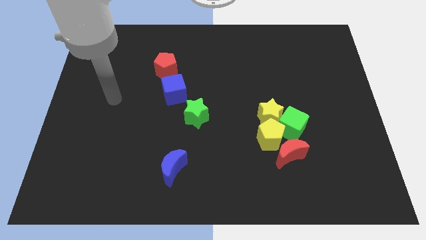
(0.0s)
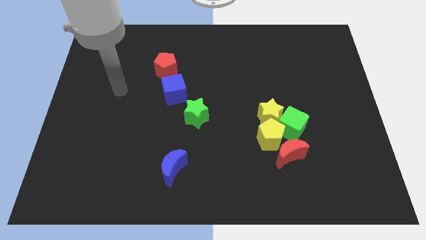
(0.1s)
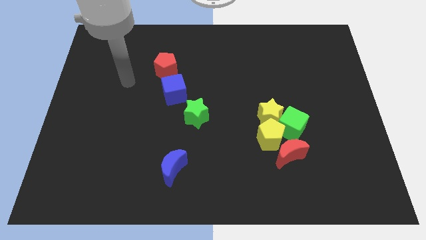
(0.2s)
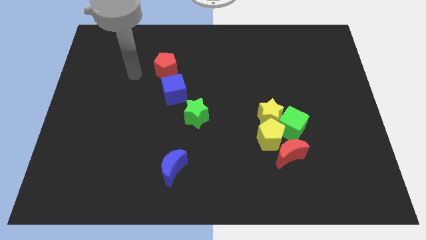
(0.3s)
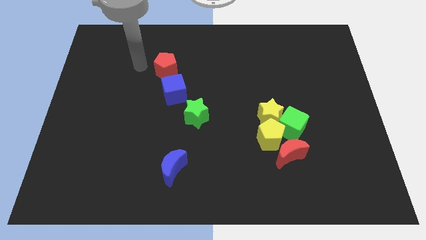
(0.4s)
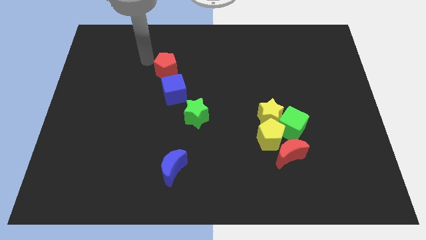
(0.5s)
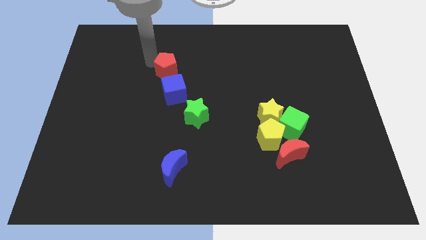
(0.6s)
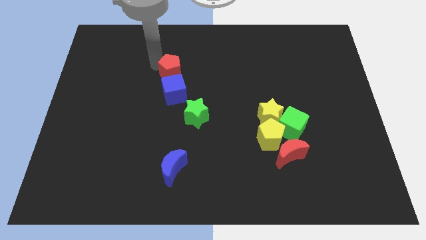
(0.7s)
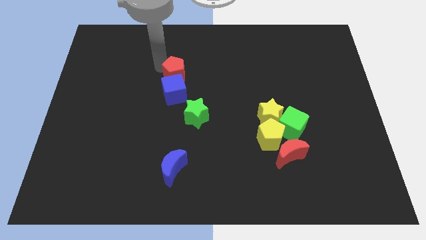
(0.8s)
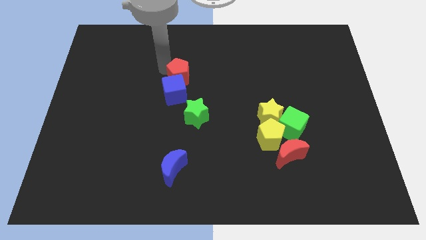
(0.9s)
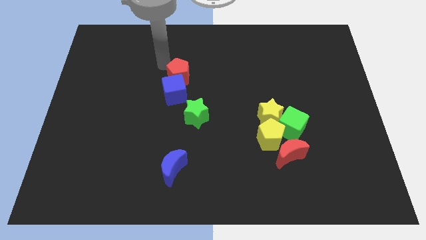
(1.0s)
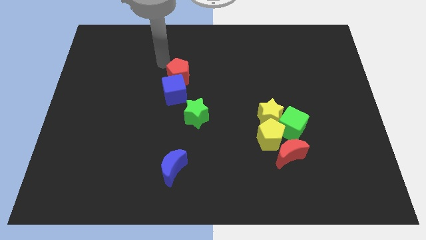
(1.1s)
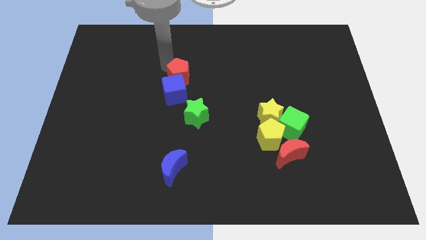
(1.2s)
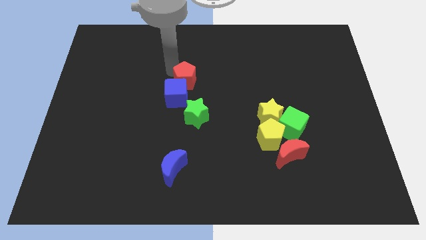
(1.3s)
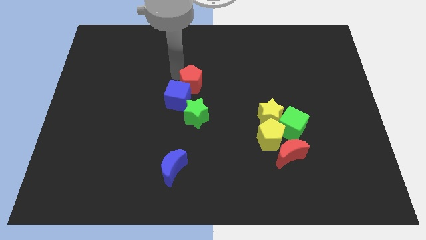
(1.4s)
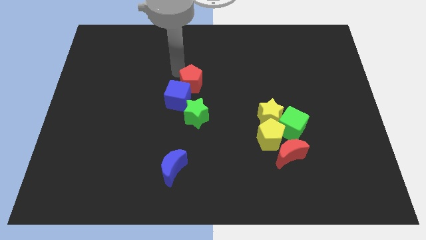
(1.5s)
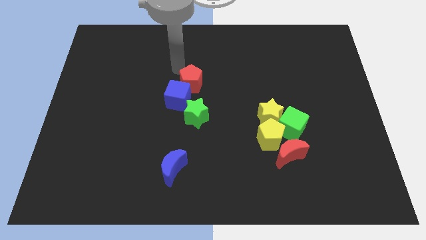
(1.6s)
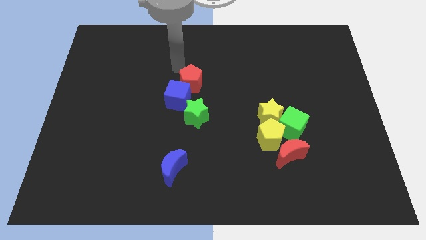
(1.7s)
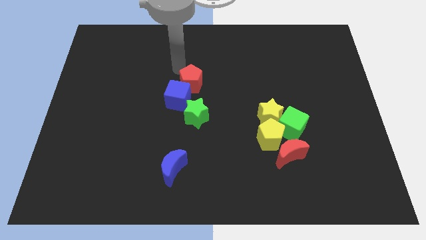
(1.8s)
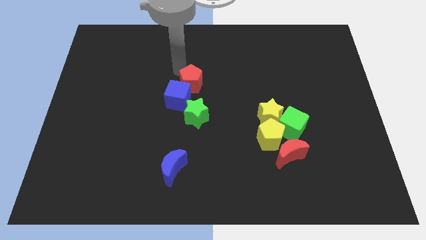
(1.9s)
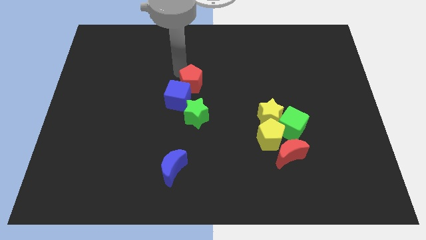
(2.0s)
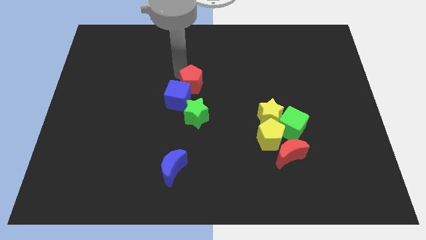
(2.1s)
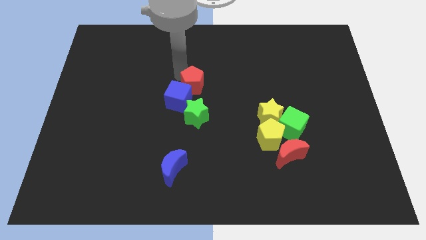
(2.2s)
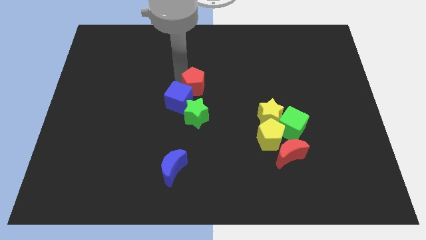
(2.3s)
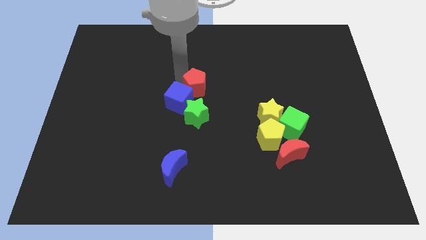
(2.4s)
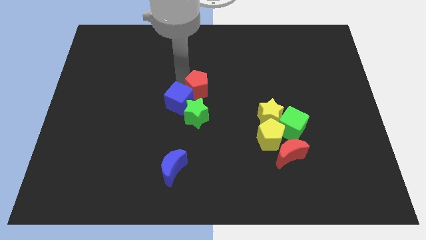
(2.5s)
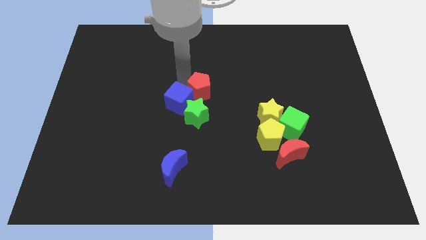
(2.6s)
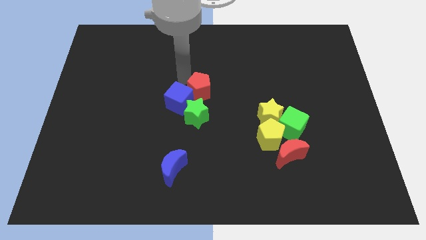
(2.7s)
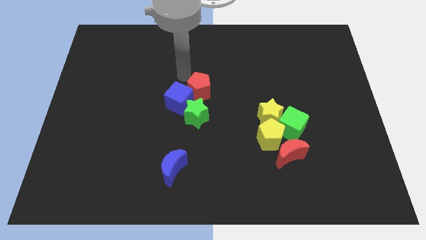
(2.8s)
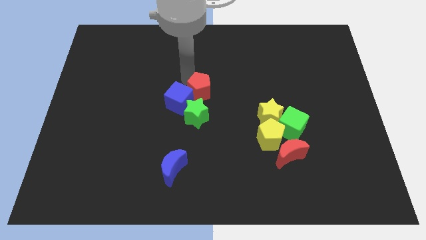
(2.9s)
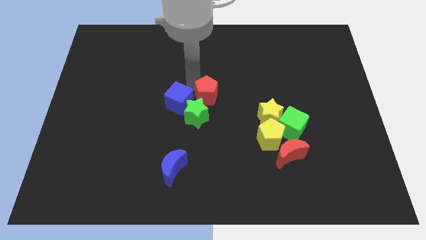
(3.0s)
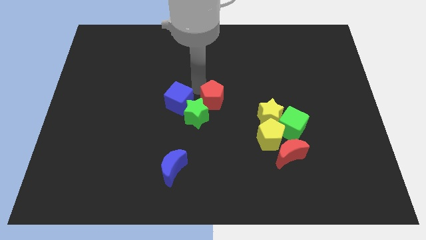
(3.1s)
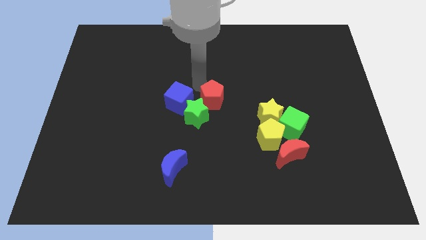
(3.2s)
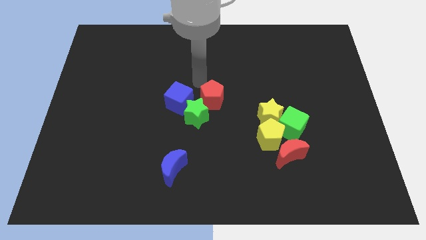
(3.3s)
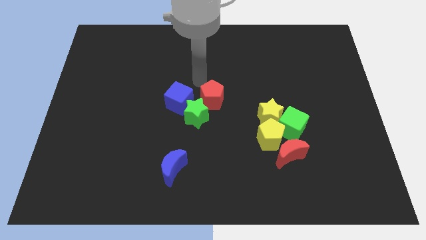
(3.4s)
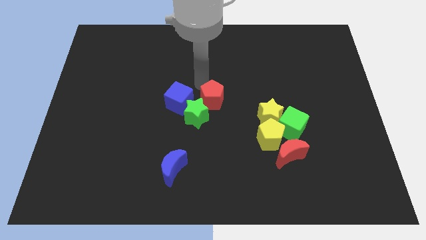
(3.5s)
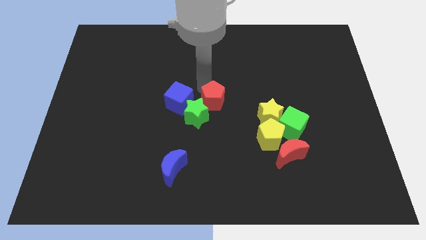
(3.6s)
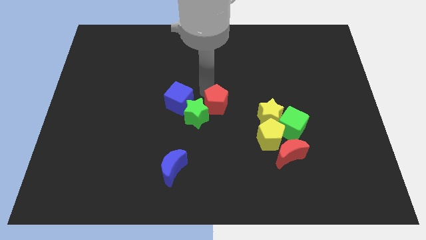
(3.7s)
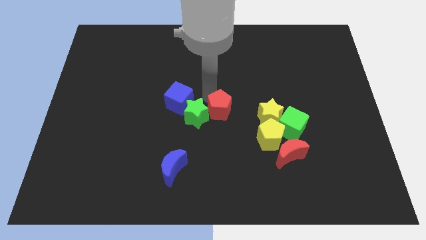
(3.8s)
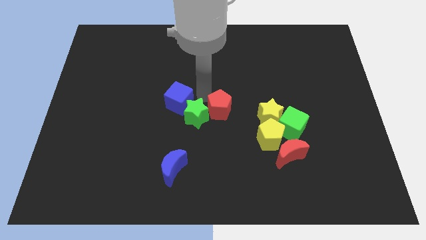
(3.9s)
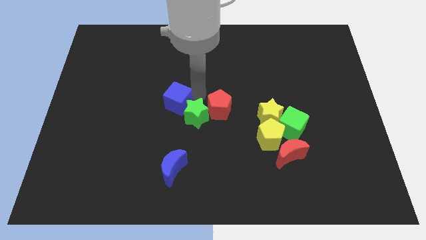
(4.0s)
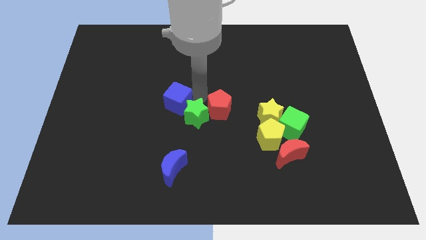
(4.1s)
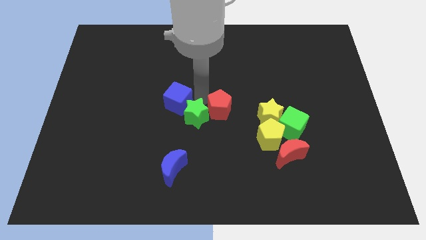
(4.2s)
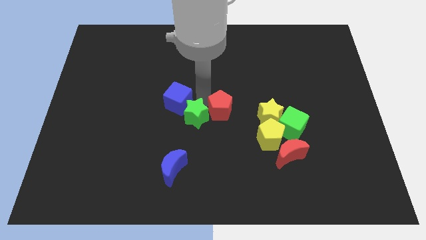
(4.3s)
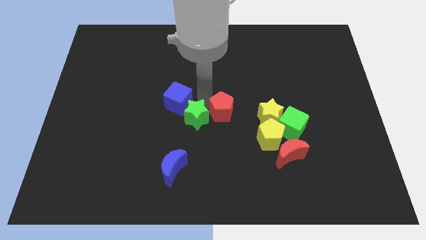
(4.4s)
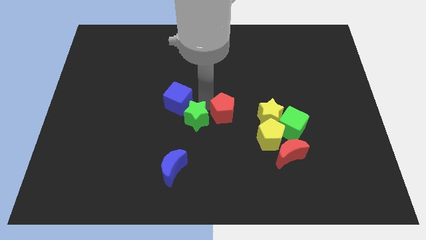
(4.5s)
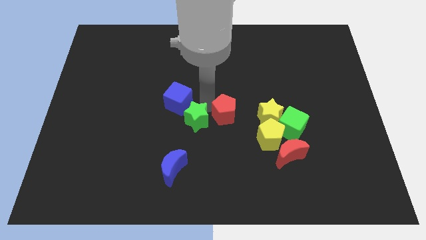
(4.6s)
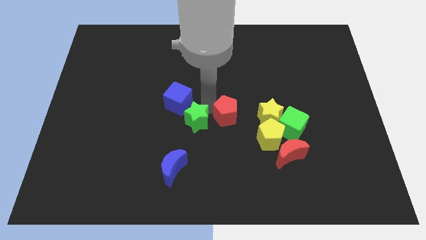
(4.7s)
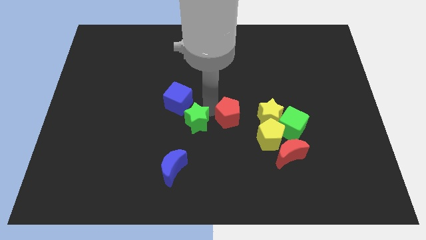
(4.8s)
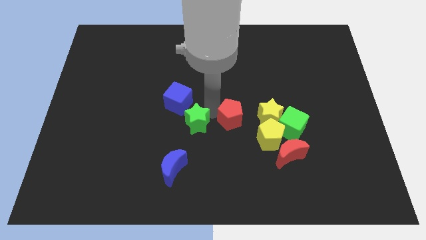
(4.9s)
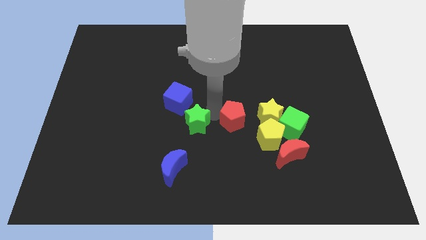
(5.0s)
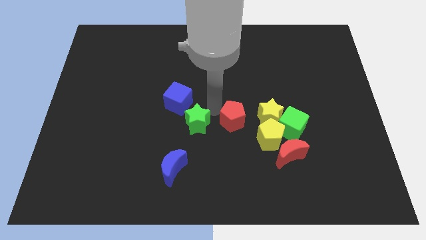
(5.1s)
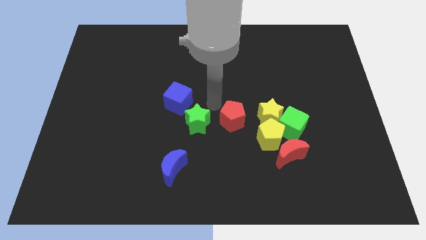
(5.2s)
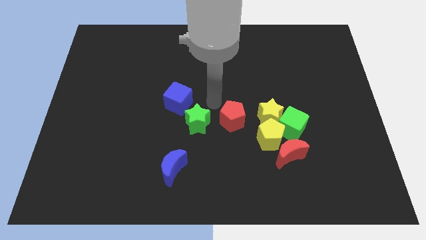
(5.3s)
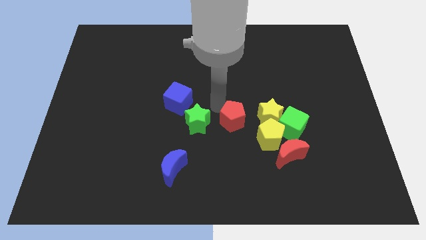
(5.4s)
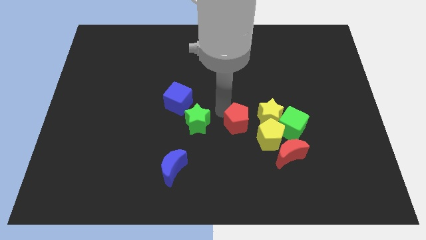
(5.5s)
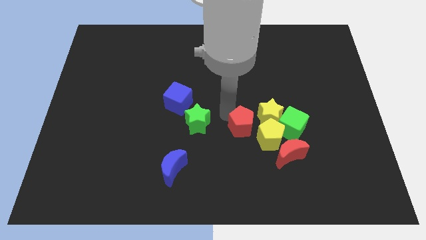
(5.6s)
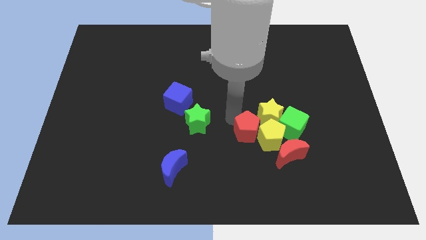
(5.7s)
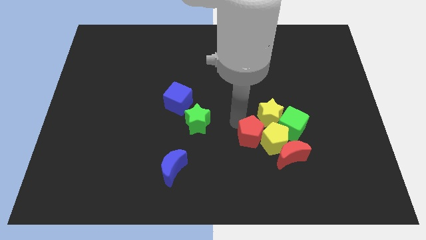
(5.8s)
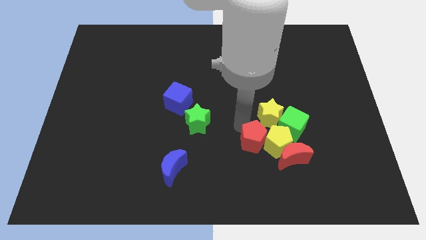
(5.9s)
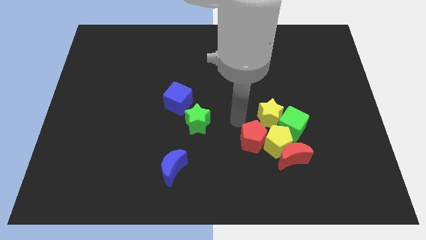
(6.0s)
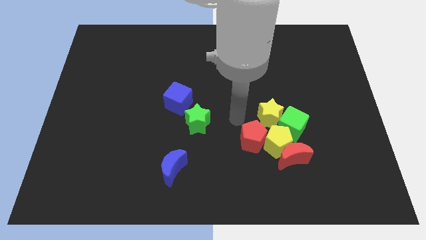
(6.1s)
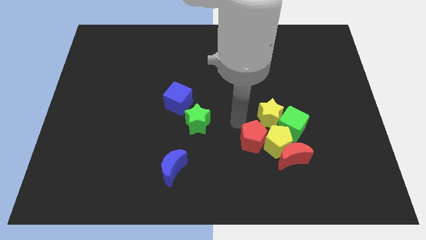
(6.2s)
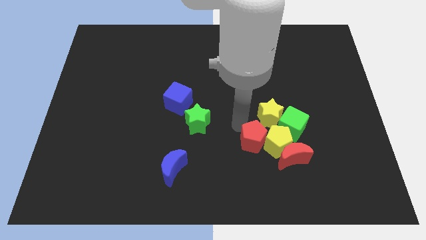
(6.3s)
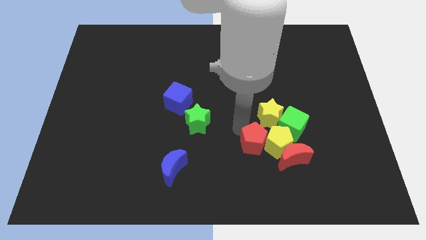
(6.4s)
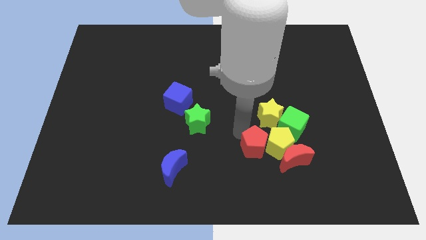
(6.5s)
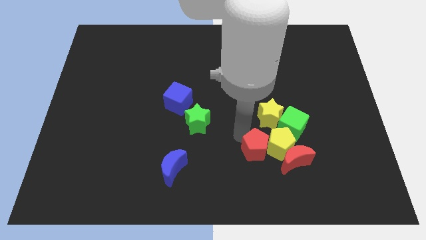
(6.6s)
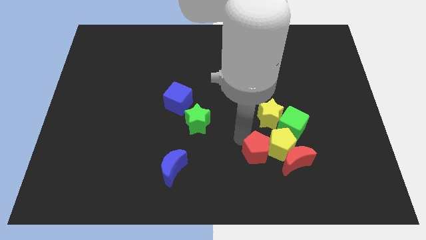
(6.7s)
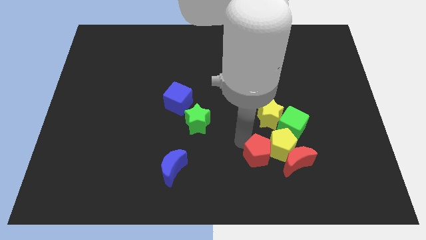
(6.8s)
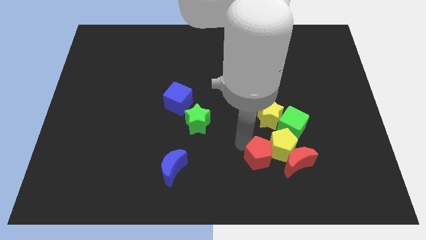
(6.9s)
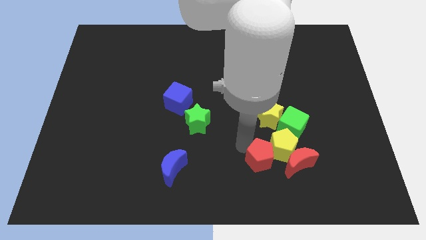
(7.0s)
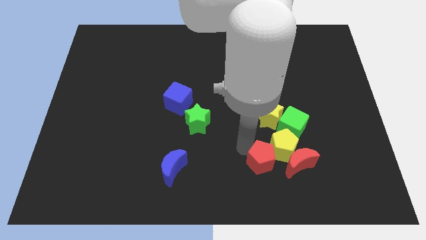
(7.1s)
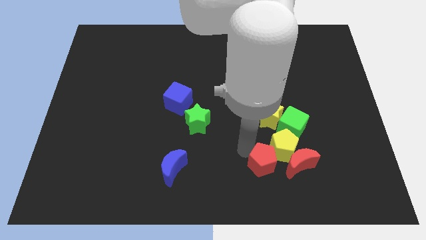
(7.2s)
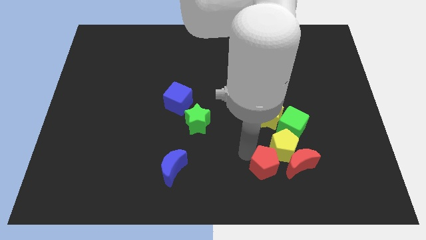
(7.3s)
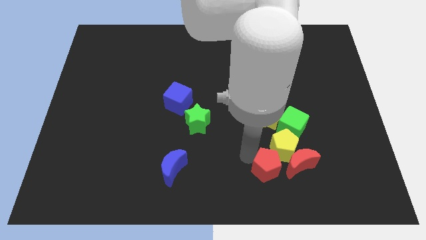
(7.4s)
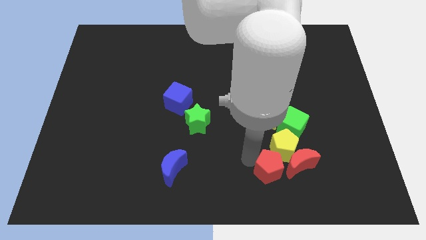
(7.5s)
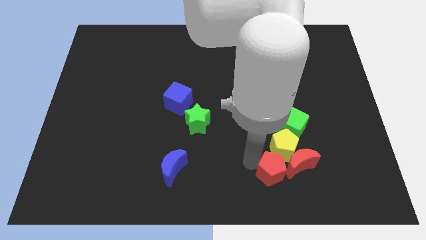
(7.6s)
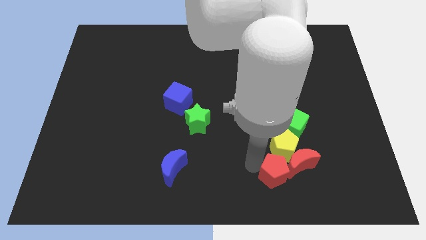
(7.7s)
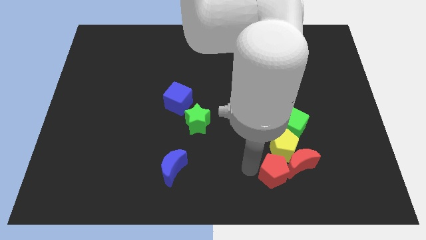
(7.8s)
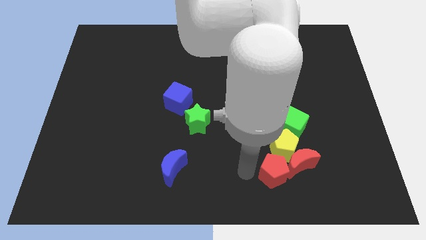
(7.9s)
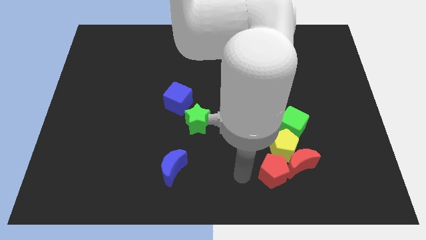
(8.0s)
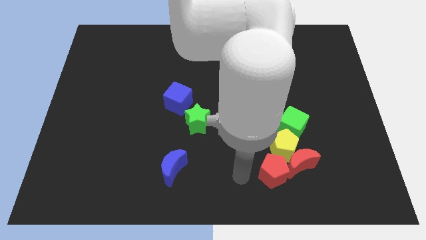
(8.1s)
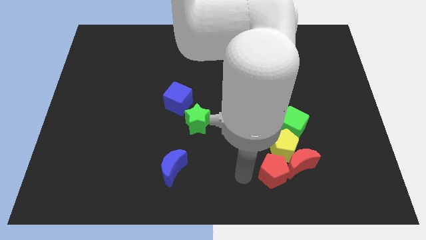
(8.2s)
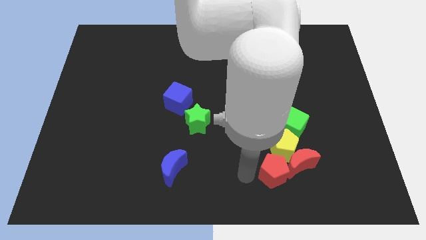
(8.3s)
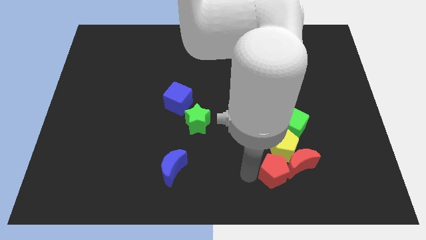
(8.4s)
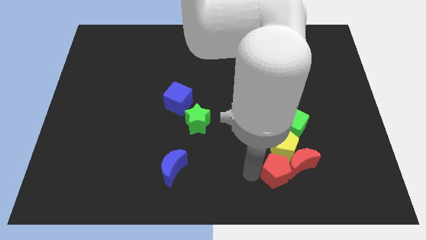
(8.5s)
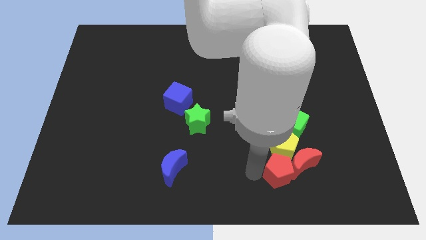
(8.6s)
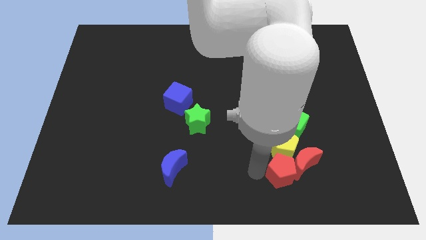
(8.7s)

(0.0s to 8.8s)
put the red pentagon diagonally down and to the right of the yellow pentagon
